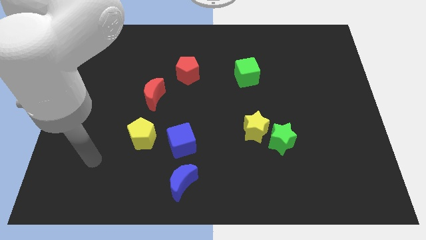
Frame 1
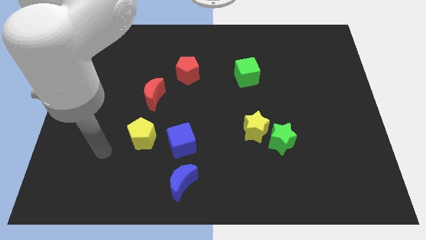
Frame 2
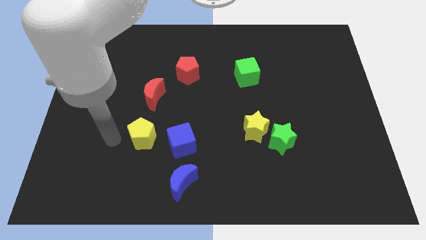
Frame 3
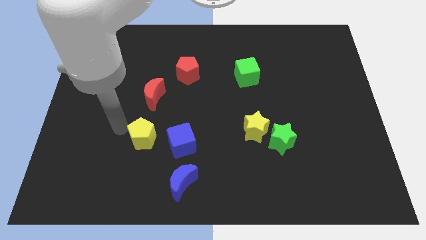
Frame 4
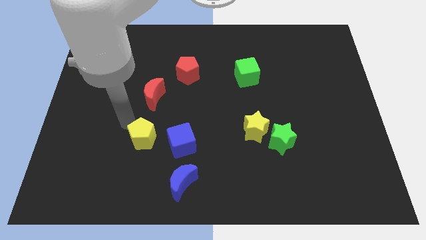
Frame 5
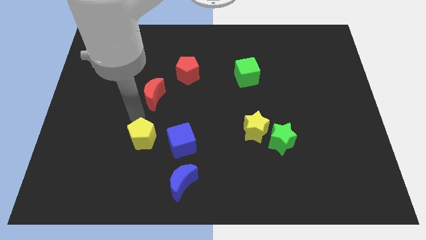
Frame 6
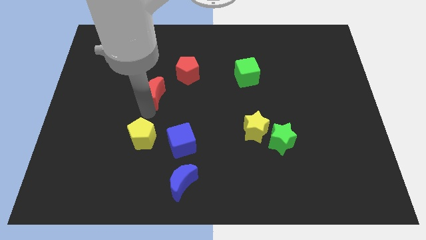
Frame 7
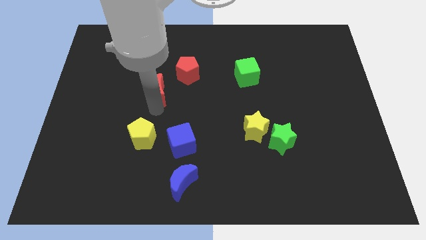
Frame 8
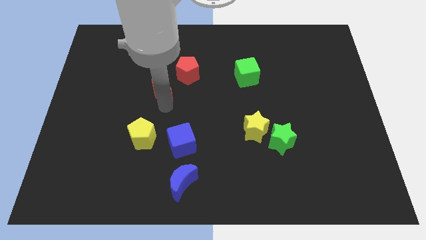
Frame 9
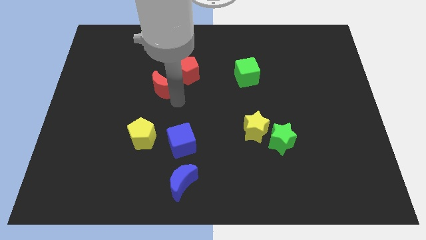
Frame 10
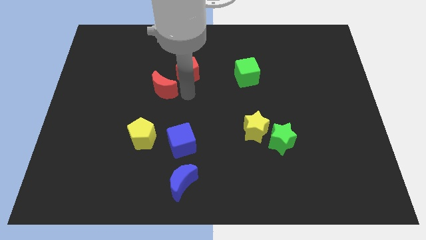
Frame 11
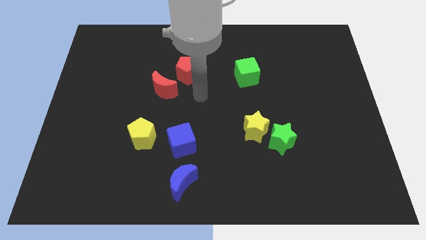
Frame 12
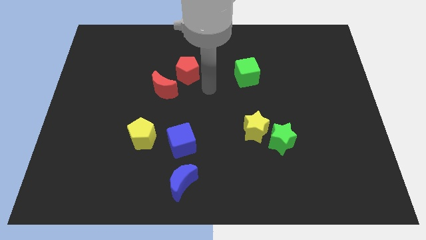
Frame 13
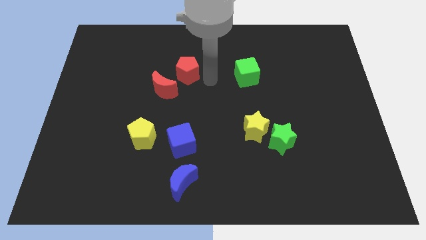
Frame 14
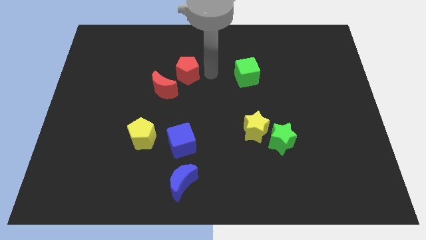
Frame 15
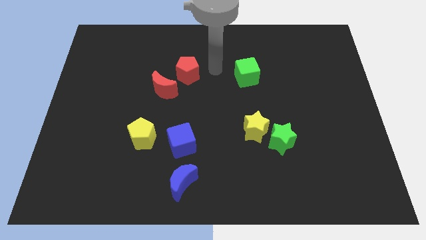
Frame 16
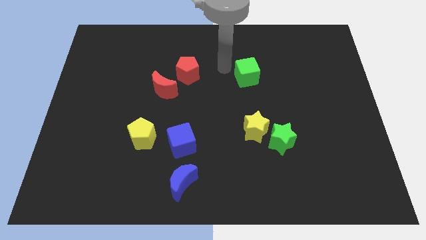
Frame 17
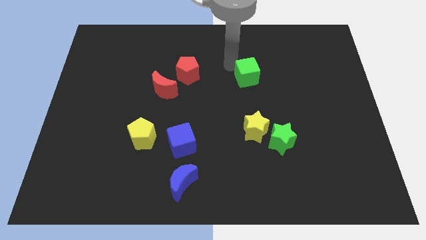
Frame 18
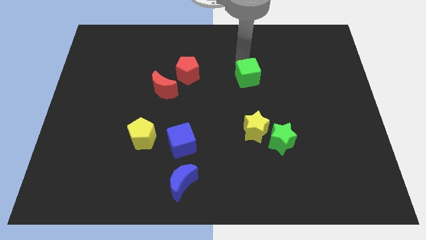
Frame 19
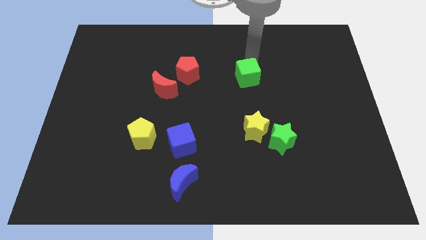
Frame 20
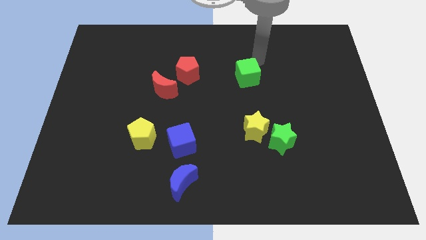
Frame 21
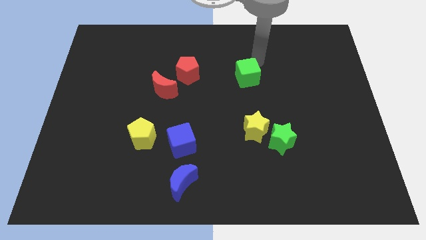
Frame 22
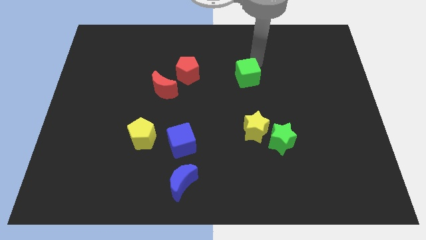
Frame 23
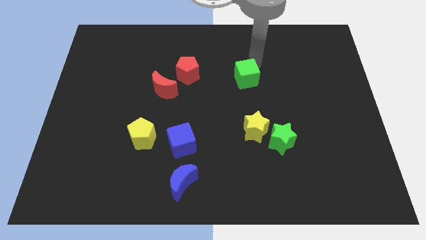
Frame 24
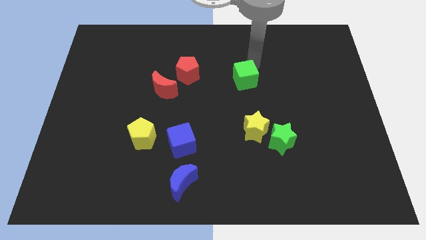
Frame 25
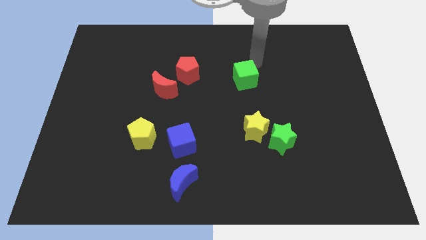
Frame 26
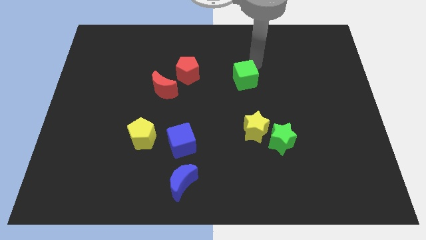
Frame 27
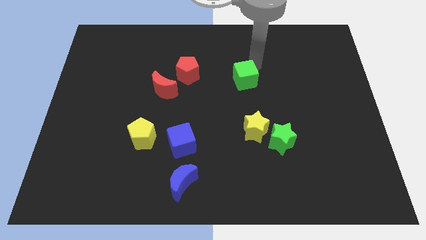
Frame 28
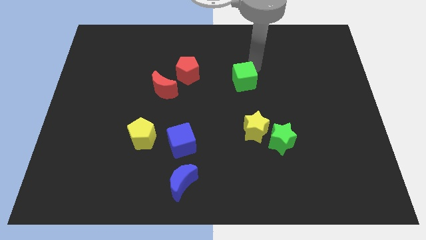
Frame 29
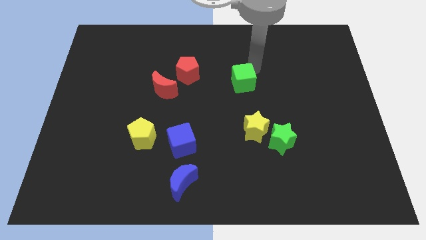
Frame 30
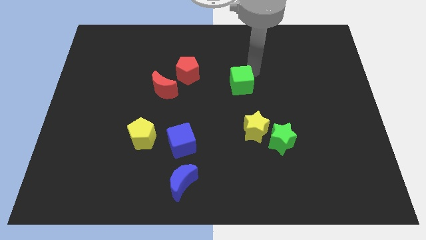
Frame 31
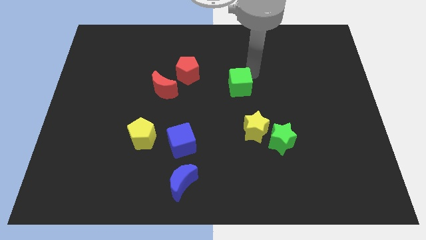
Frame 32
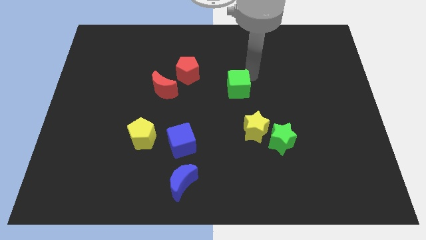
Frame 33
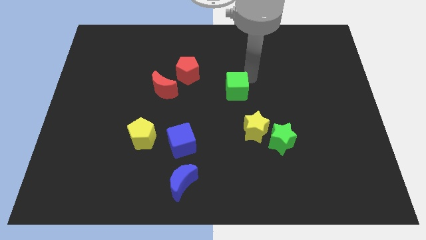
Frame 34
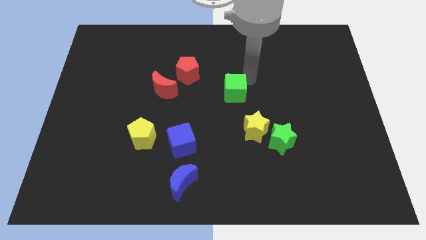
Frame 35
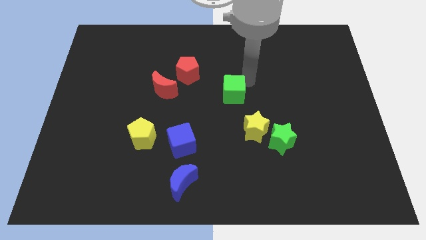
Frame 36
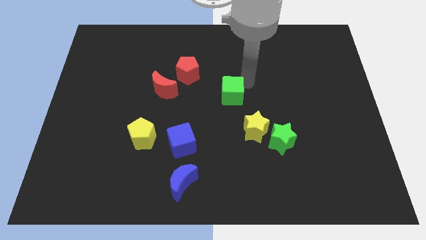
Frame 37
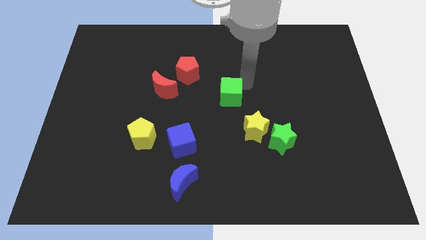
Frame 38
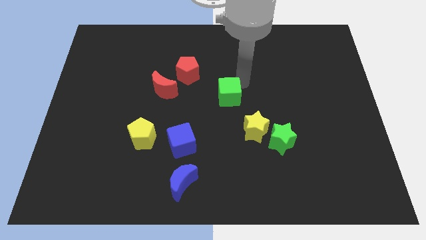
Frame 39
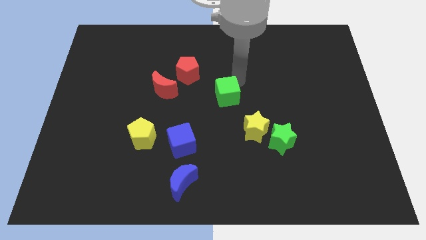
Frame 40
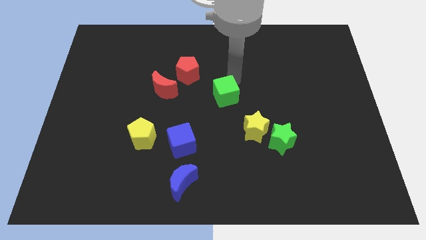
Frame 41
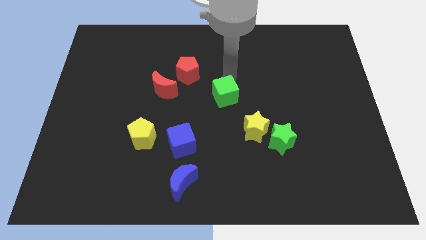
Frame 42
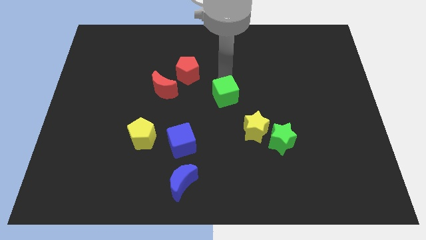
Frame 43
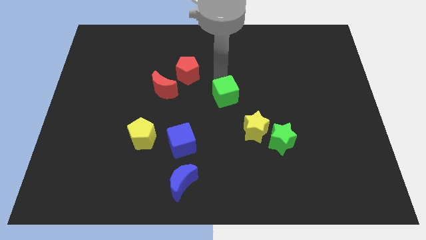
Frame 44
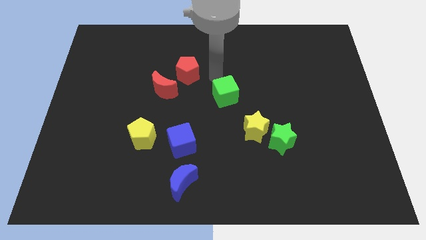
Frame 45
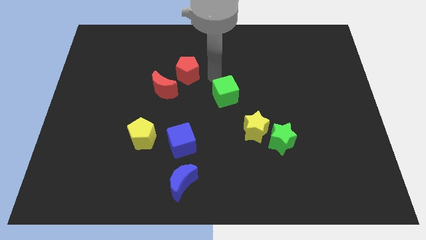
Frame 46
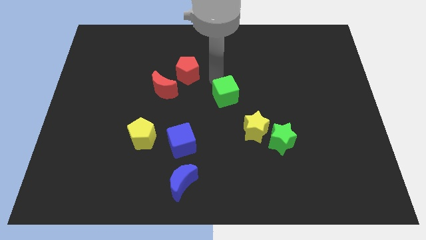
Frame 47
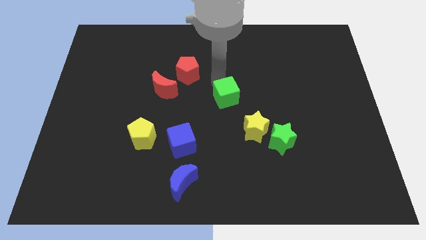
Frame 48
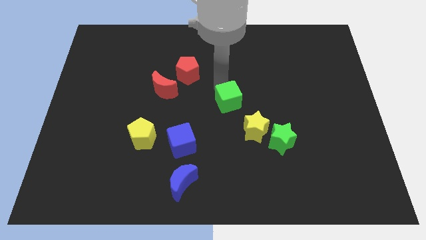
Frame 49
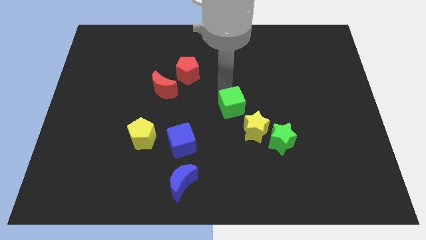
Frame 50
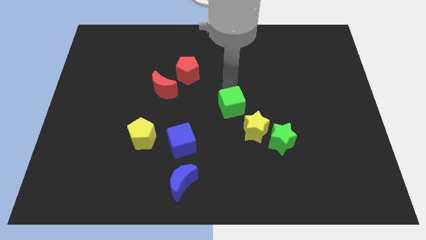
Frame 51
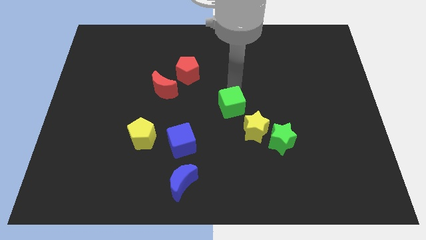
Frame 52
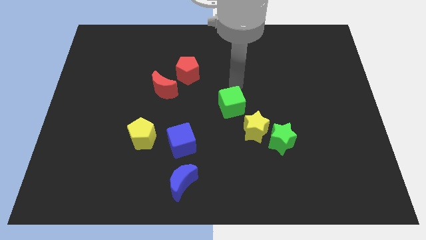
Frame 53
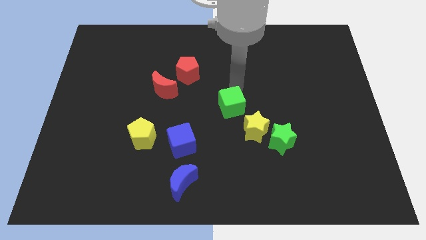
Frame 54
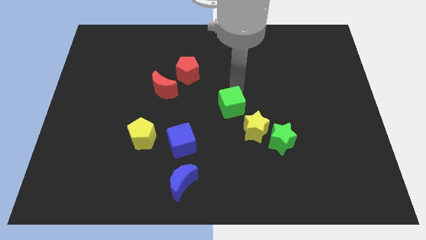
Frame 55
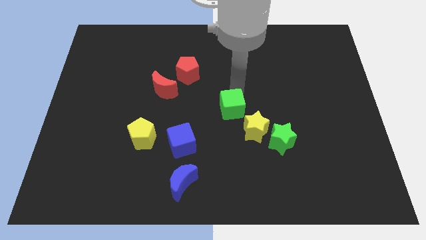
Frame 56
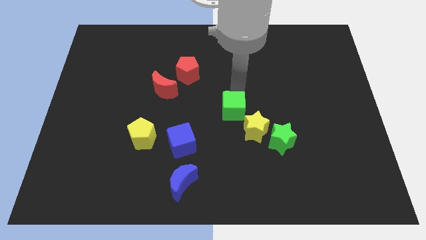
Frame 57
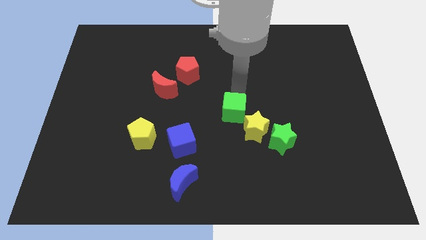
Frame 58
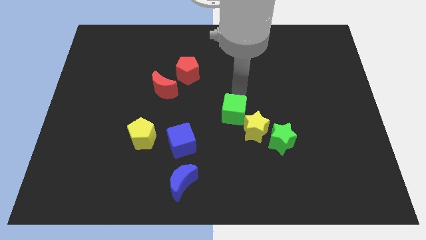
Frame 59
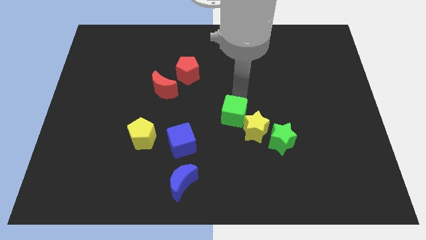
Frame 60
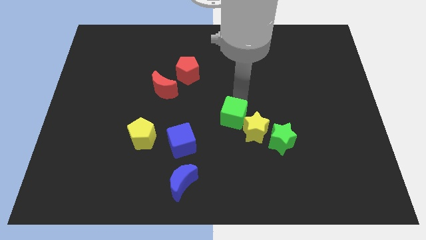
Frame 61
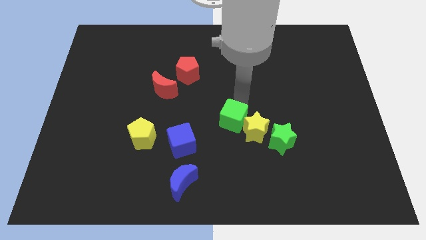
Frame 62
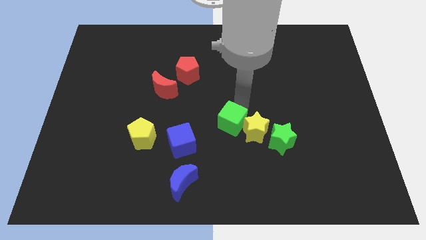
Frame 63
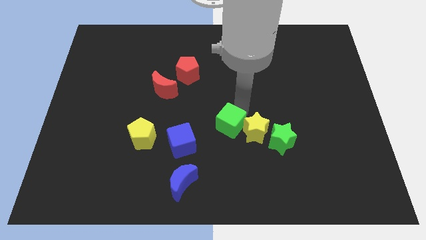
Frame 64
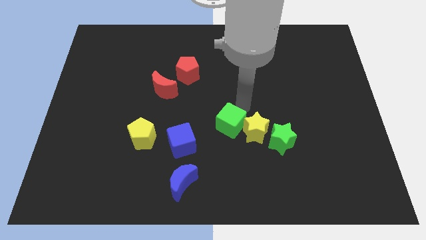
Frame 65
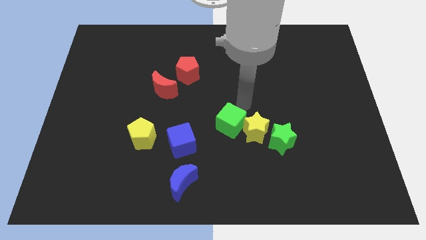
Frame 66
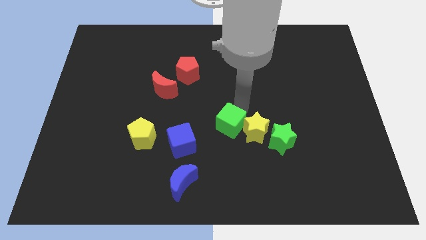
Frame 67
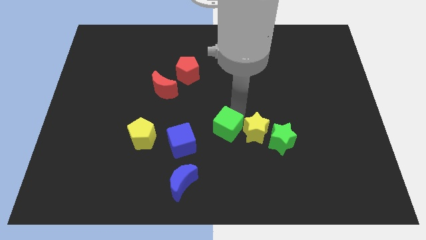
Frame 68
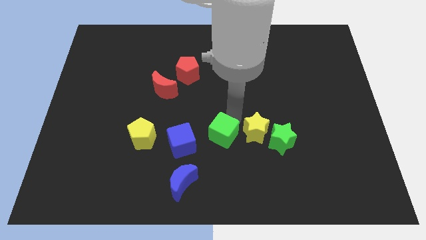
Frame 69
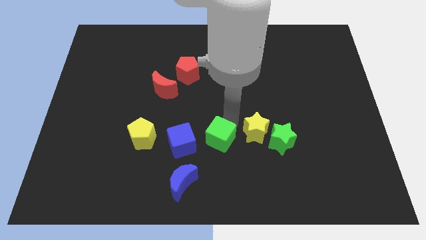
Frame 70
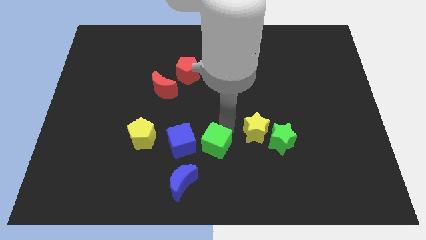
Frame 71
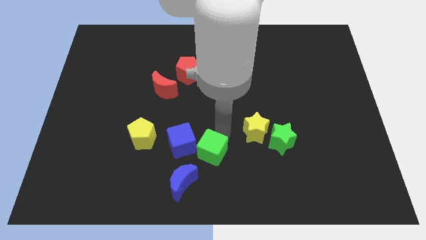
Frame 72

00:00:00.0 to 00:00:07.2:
slide the green cube diagonally down and to the right of the blue cube
